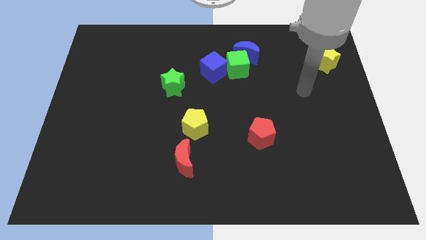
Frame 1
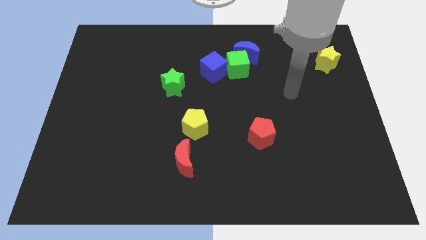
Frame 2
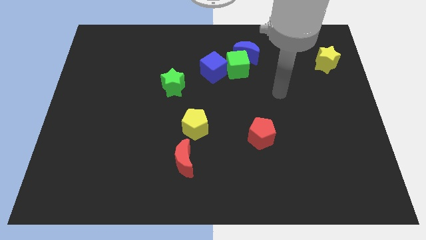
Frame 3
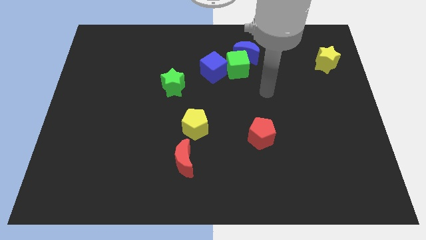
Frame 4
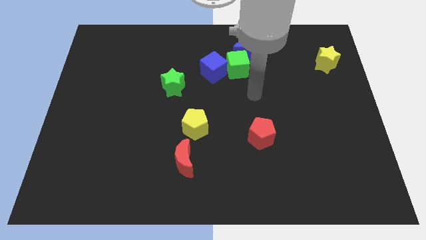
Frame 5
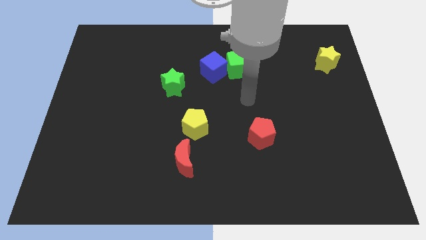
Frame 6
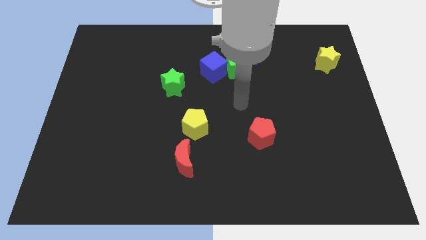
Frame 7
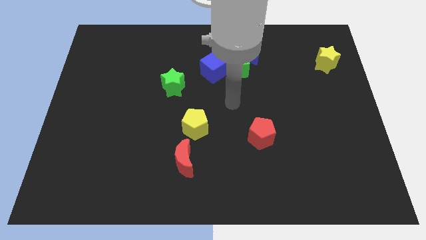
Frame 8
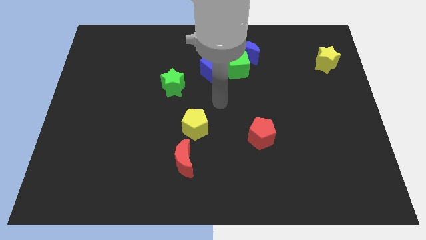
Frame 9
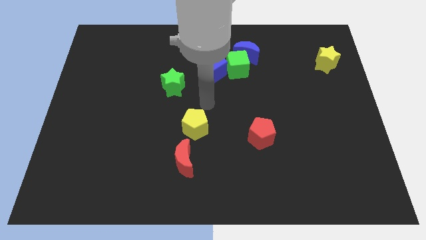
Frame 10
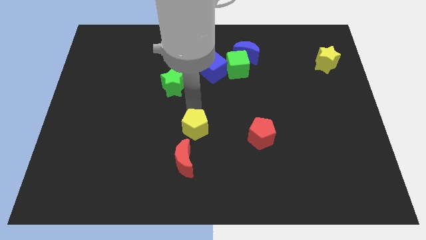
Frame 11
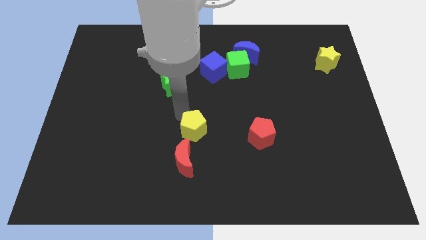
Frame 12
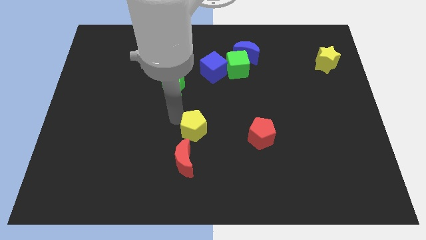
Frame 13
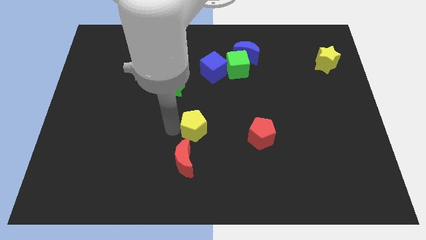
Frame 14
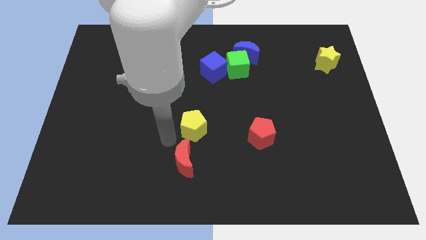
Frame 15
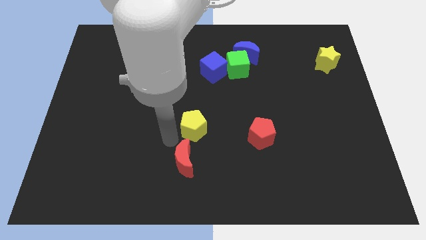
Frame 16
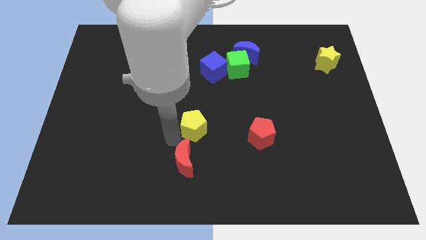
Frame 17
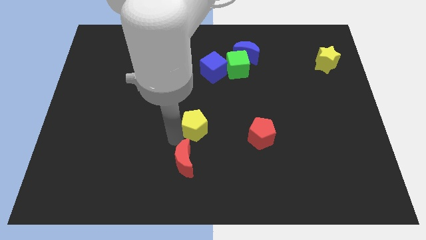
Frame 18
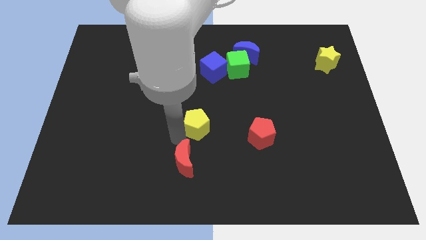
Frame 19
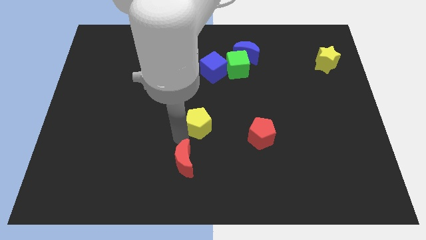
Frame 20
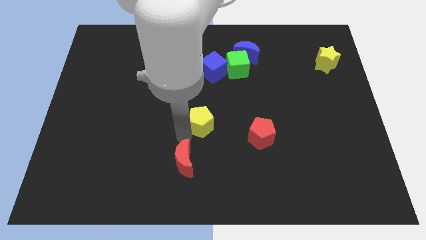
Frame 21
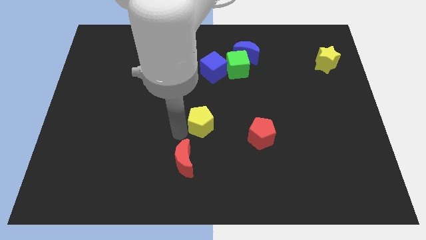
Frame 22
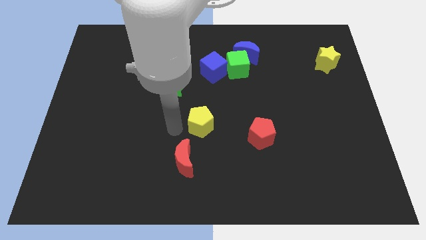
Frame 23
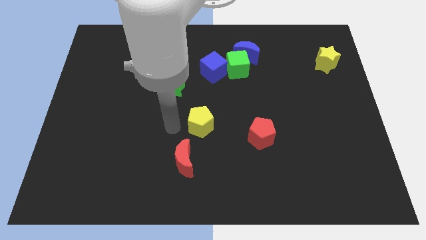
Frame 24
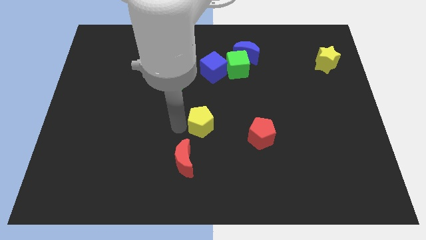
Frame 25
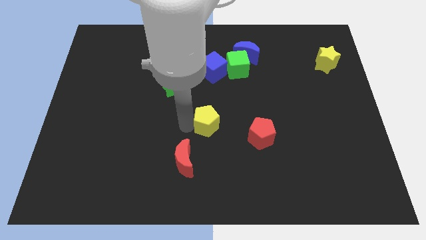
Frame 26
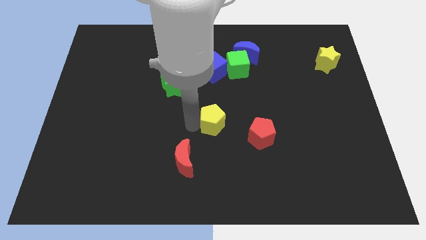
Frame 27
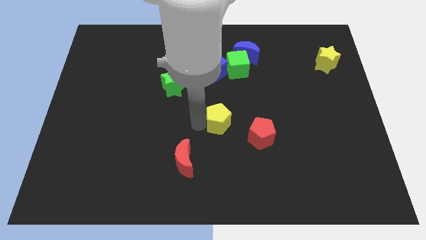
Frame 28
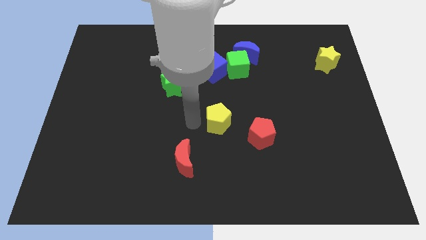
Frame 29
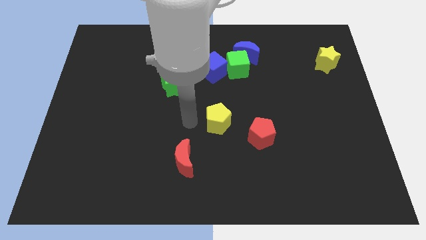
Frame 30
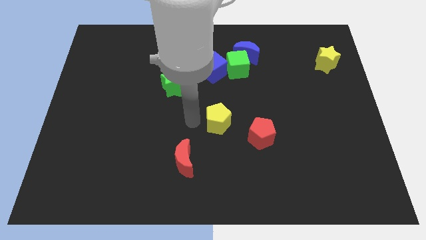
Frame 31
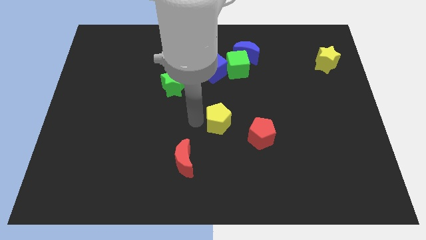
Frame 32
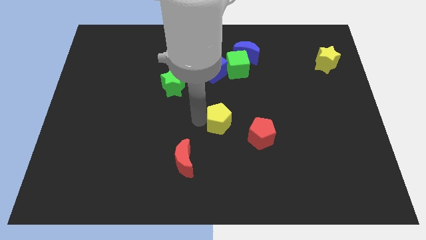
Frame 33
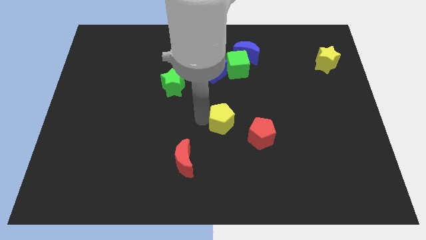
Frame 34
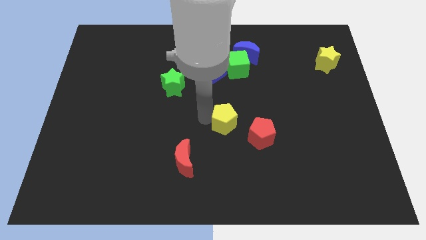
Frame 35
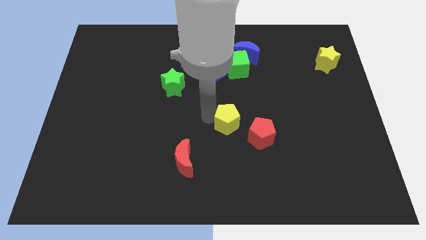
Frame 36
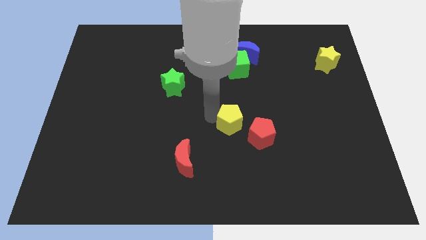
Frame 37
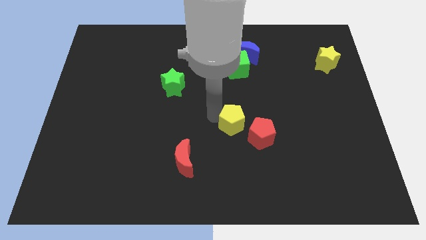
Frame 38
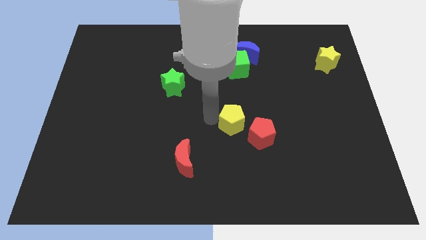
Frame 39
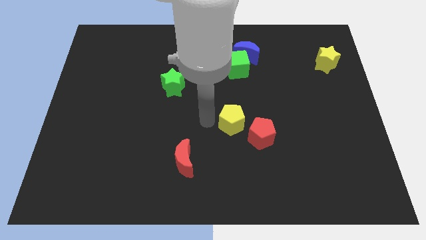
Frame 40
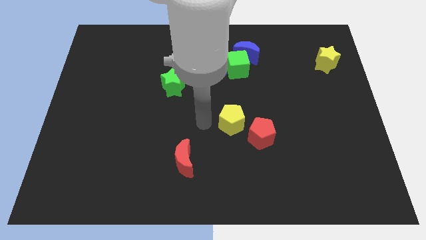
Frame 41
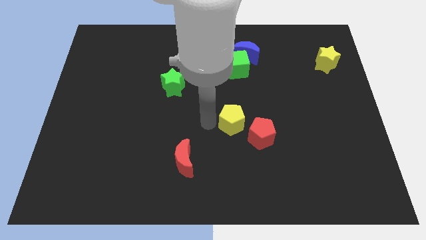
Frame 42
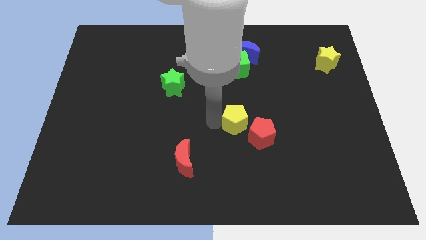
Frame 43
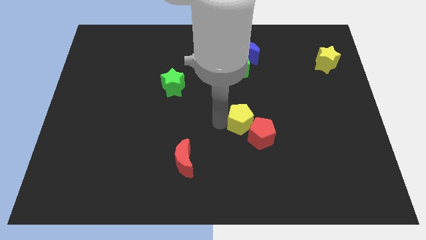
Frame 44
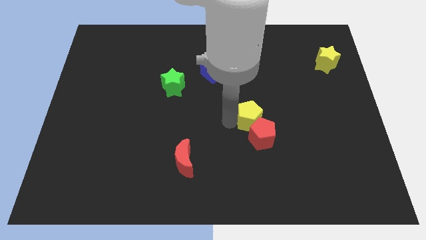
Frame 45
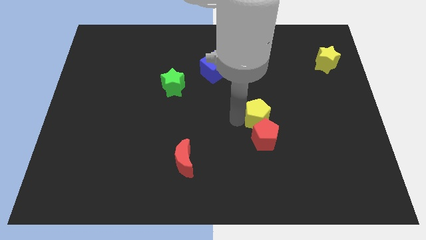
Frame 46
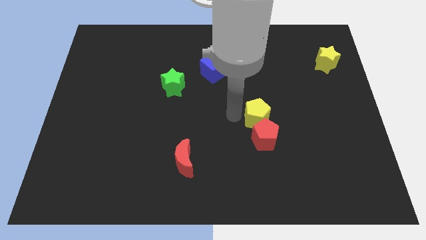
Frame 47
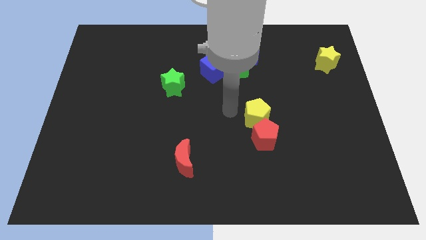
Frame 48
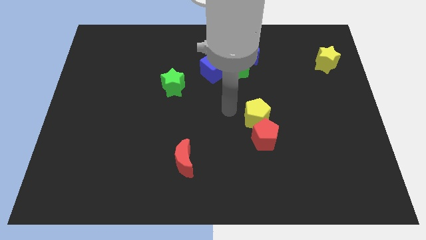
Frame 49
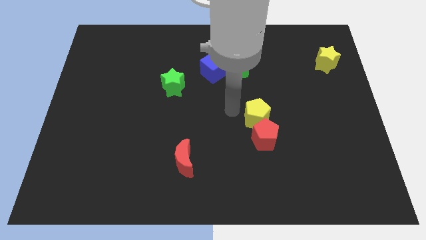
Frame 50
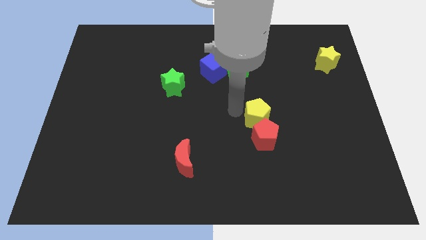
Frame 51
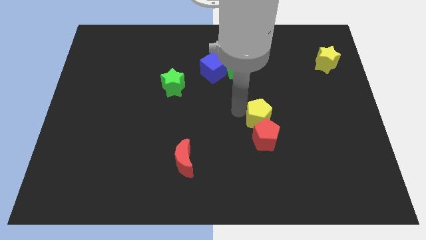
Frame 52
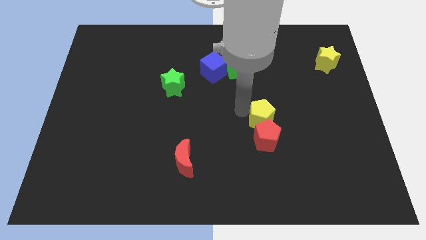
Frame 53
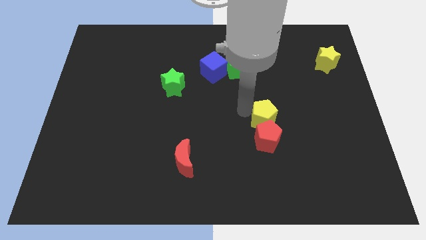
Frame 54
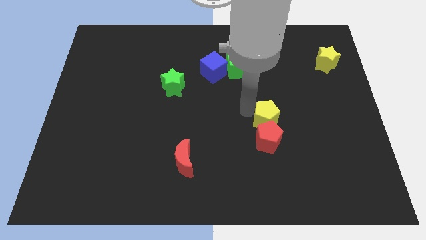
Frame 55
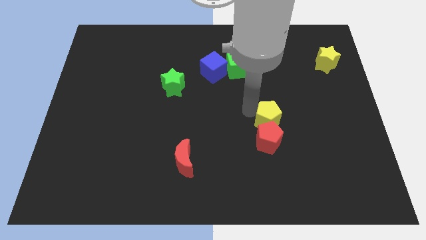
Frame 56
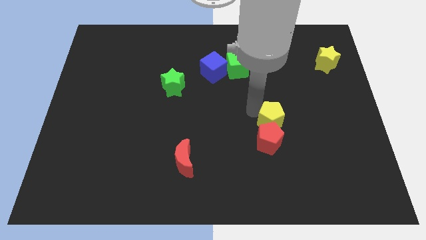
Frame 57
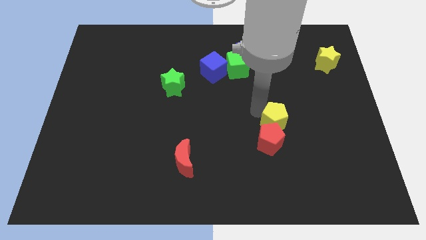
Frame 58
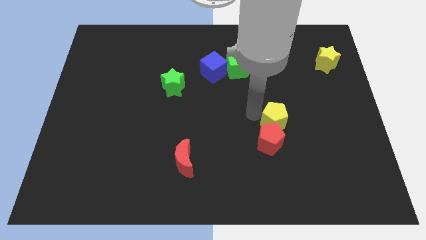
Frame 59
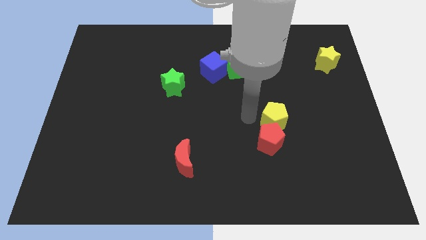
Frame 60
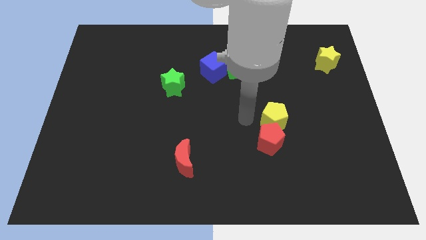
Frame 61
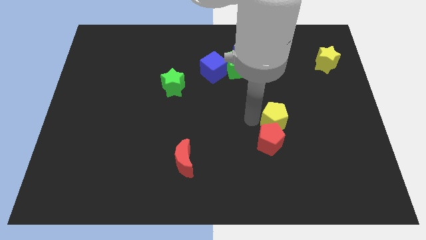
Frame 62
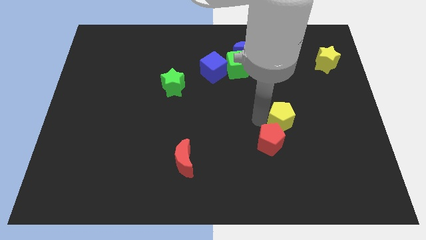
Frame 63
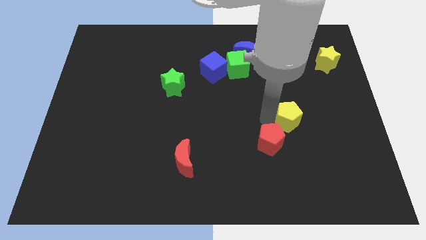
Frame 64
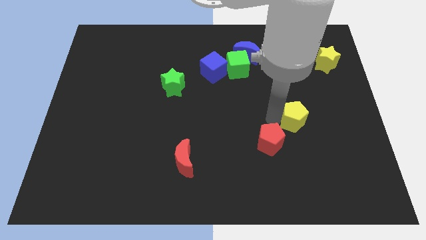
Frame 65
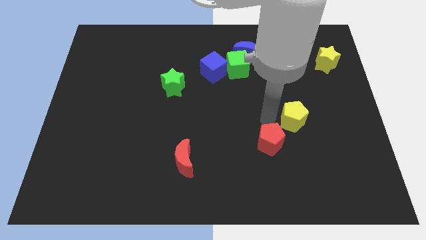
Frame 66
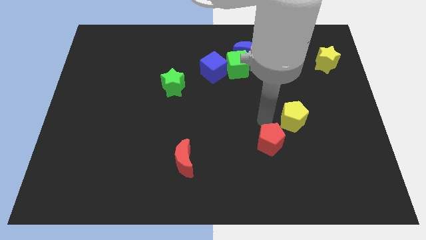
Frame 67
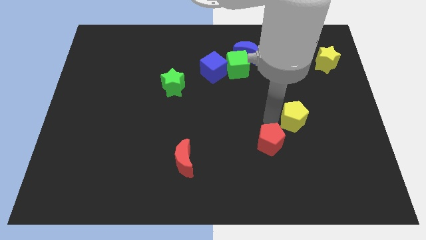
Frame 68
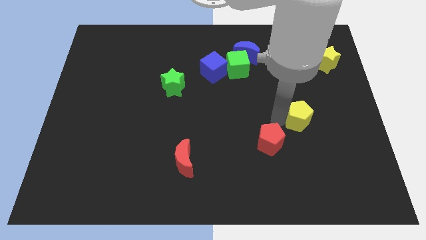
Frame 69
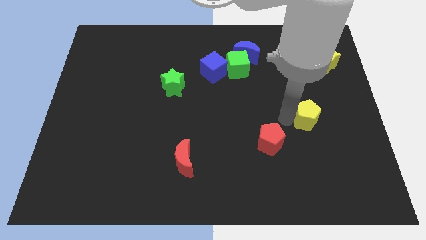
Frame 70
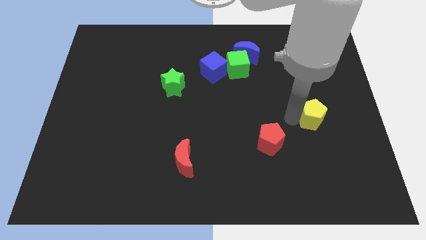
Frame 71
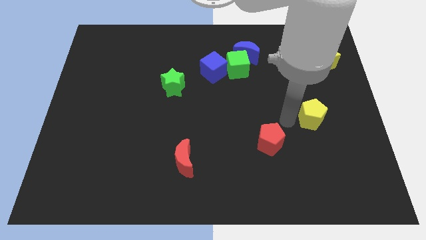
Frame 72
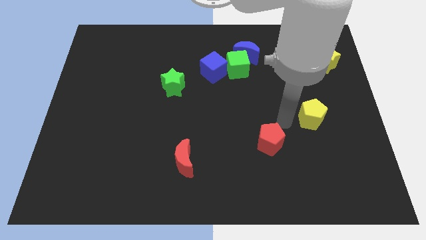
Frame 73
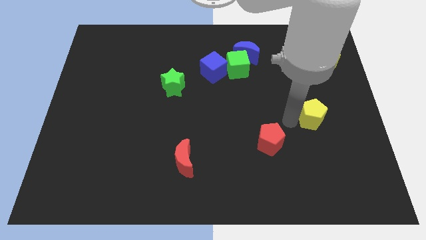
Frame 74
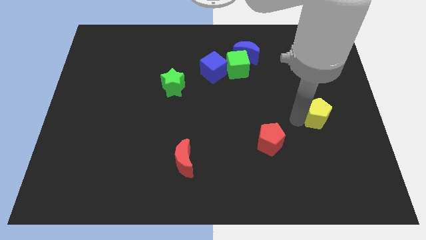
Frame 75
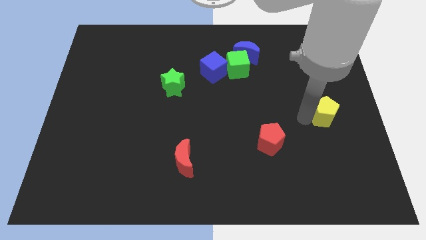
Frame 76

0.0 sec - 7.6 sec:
push the yellow pentagon to the right side
